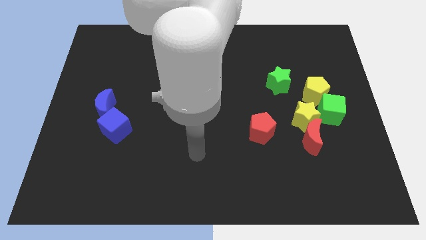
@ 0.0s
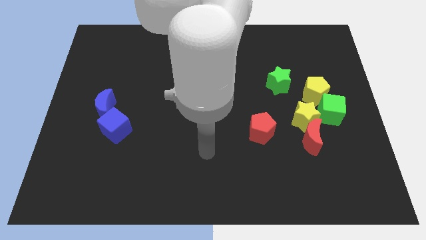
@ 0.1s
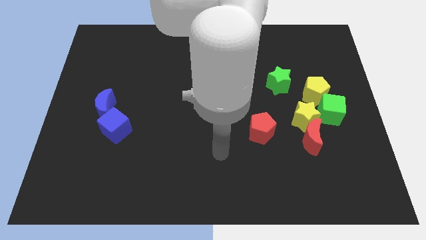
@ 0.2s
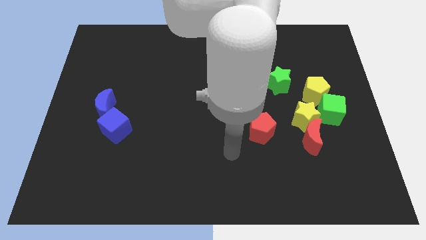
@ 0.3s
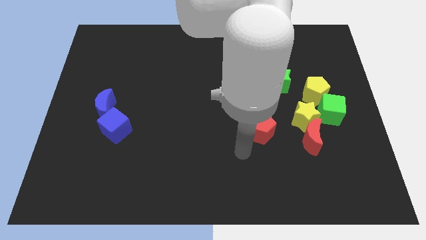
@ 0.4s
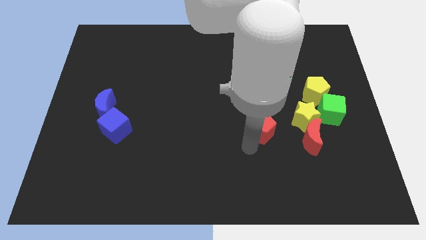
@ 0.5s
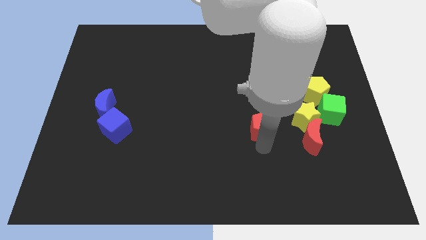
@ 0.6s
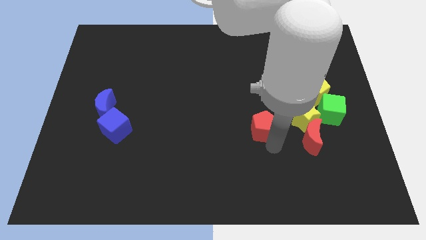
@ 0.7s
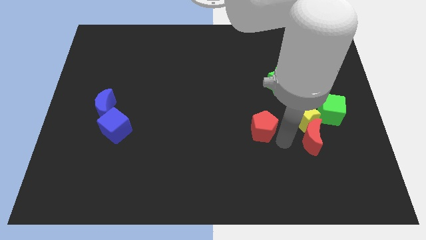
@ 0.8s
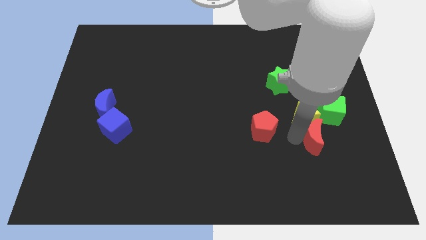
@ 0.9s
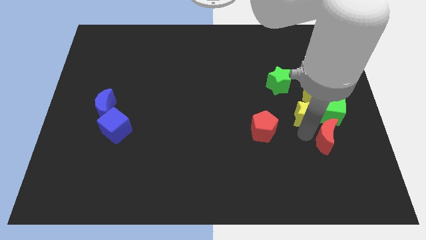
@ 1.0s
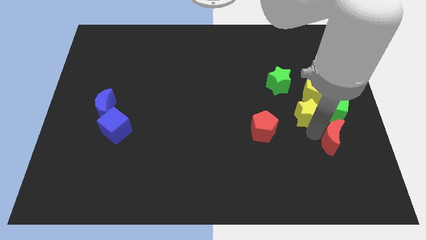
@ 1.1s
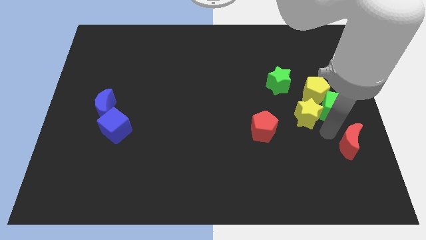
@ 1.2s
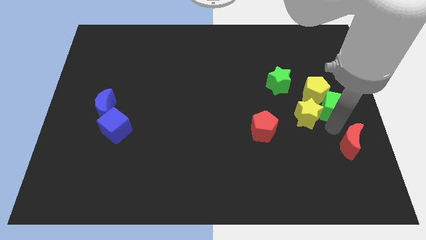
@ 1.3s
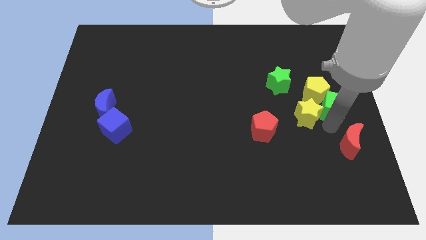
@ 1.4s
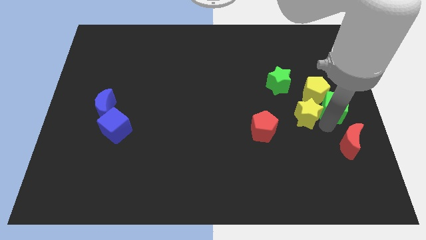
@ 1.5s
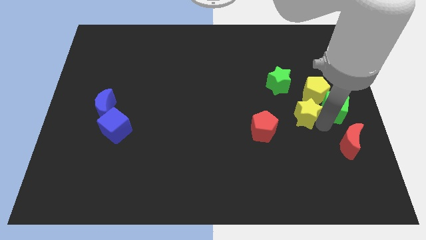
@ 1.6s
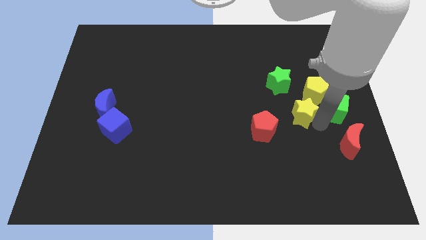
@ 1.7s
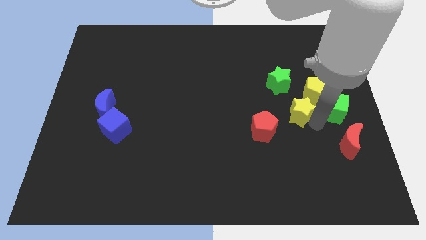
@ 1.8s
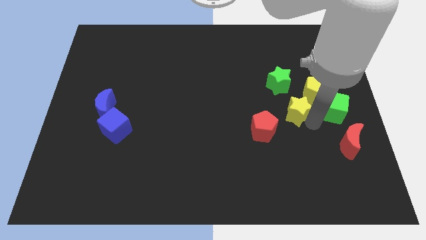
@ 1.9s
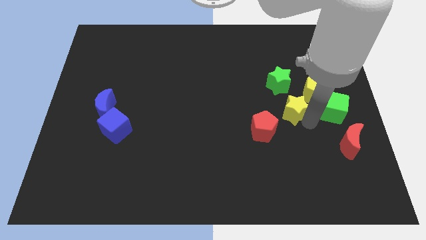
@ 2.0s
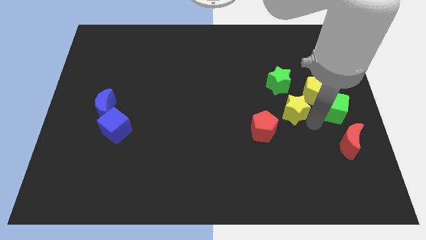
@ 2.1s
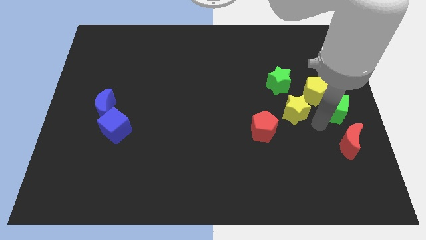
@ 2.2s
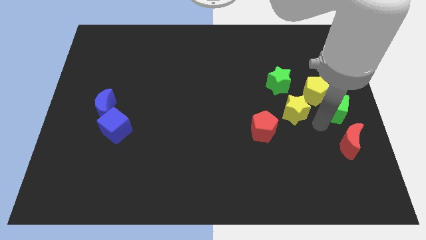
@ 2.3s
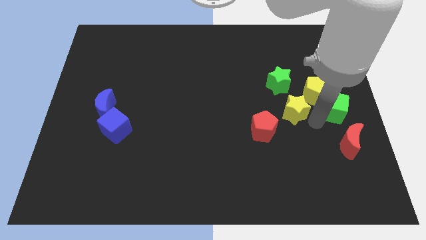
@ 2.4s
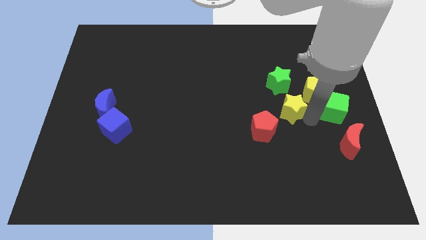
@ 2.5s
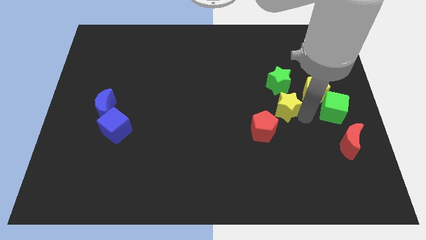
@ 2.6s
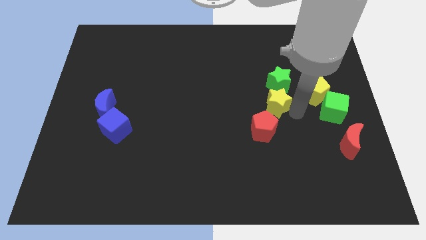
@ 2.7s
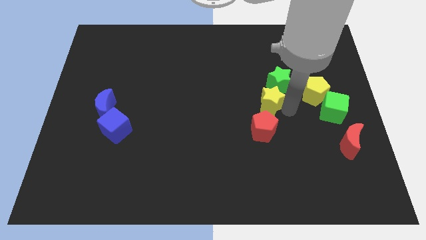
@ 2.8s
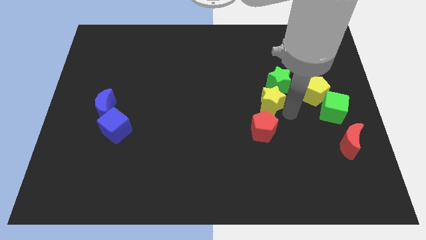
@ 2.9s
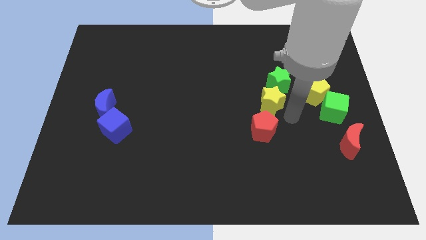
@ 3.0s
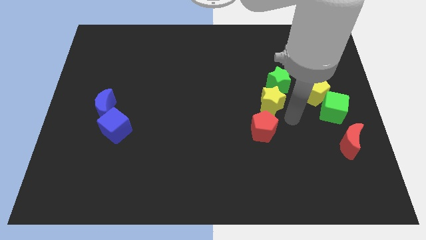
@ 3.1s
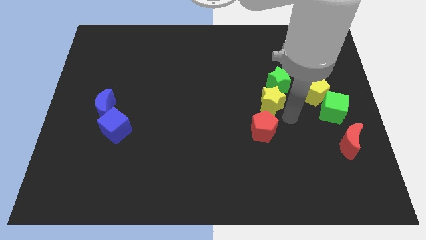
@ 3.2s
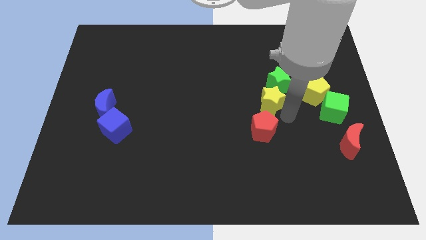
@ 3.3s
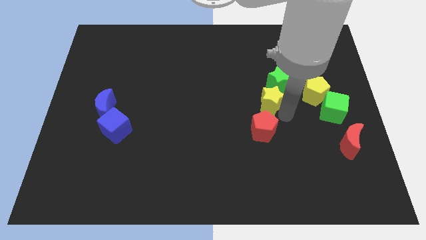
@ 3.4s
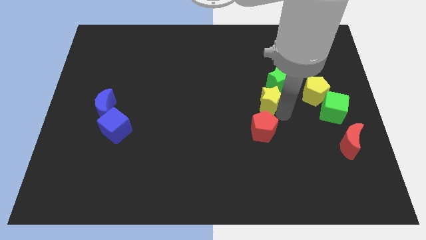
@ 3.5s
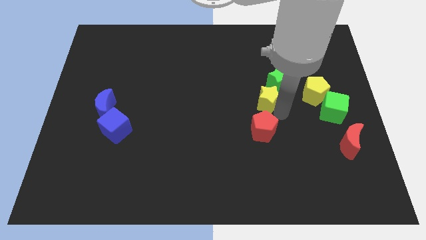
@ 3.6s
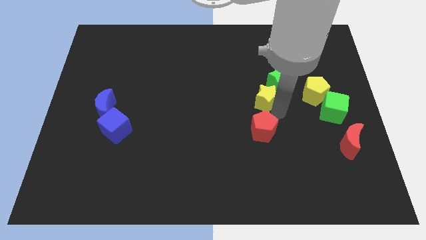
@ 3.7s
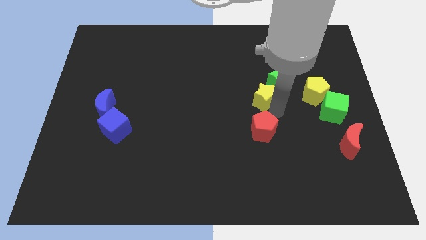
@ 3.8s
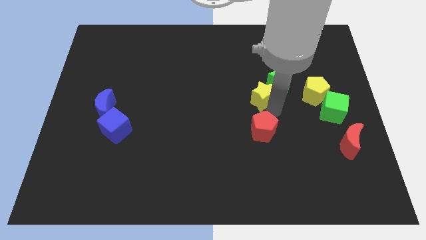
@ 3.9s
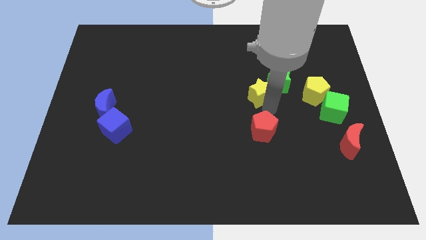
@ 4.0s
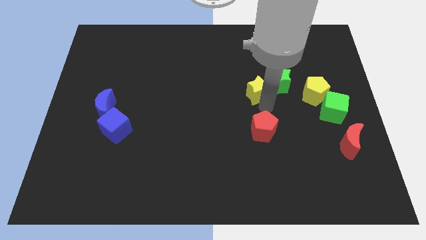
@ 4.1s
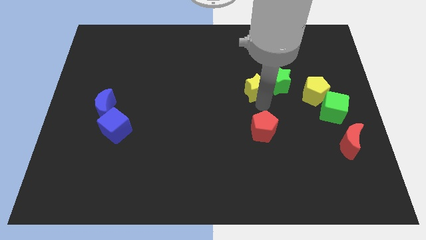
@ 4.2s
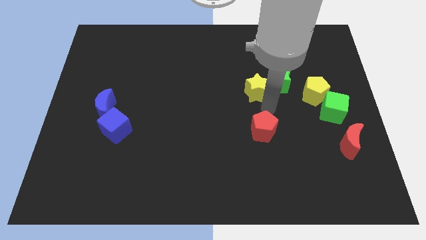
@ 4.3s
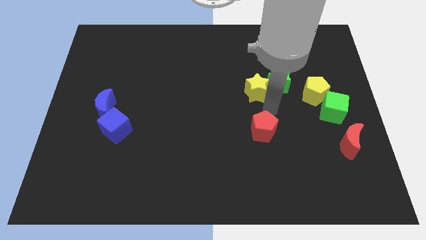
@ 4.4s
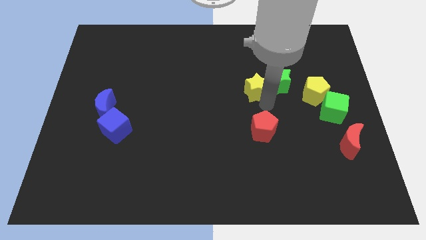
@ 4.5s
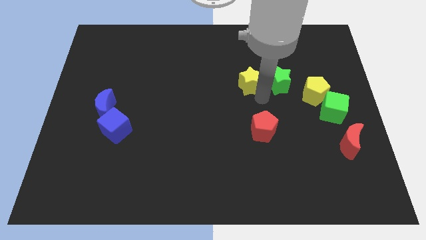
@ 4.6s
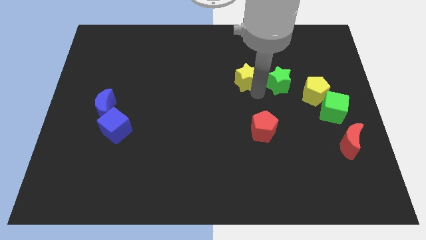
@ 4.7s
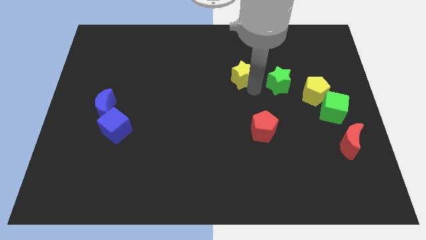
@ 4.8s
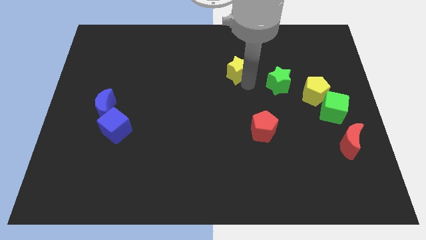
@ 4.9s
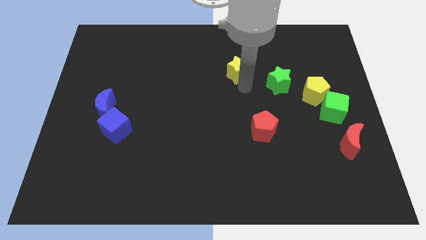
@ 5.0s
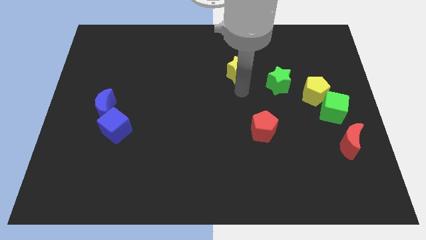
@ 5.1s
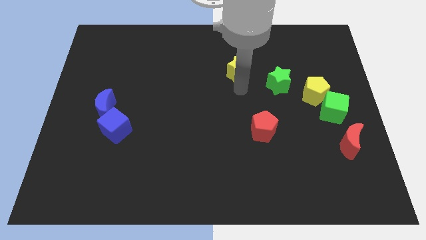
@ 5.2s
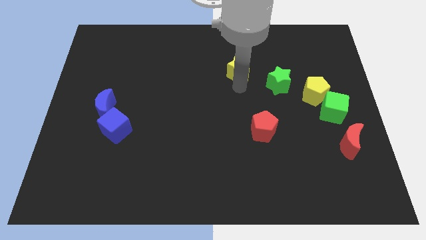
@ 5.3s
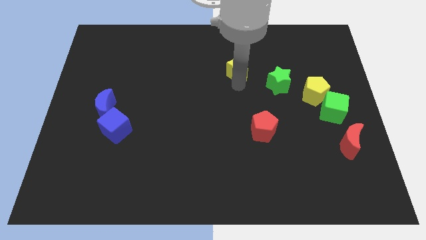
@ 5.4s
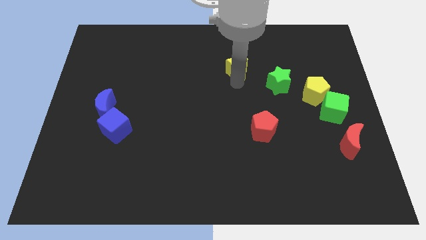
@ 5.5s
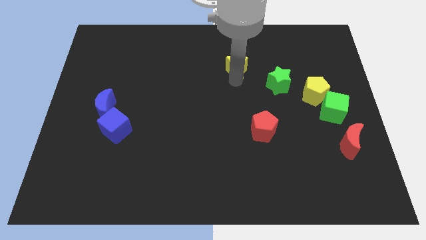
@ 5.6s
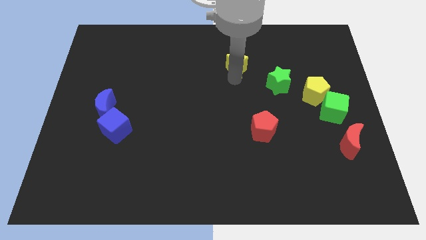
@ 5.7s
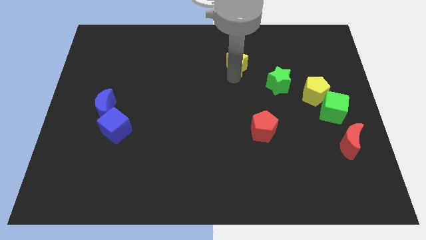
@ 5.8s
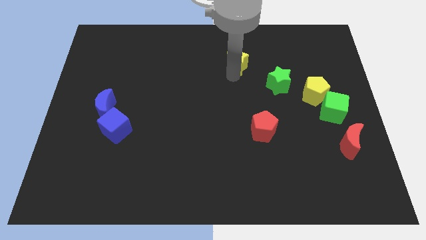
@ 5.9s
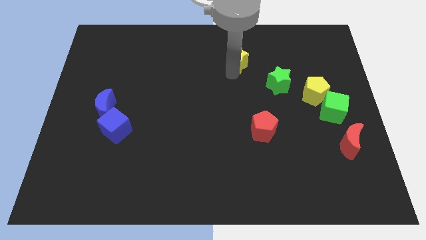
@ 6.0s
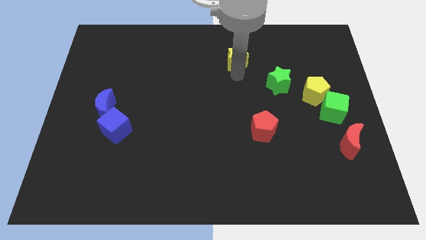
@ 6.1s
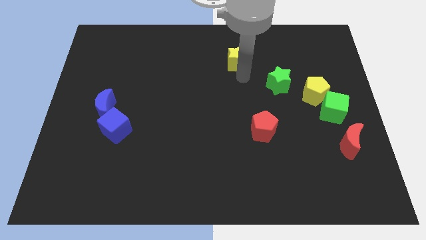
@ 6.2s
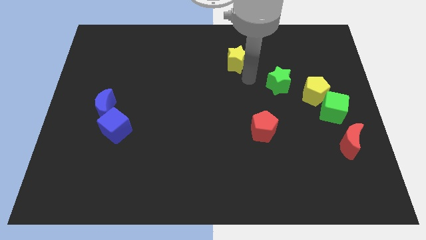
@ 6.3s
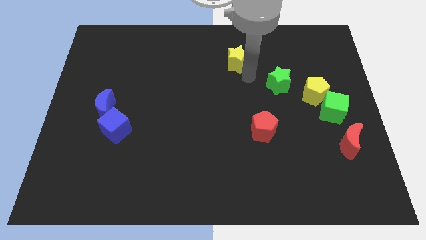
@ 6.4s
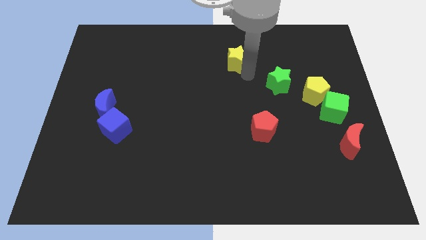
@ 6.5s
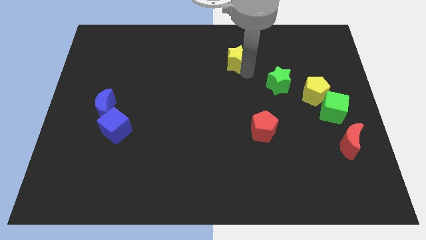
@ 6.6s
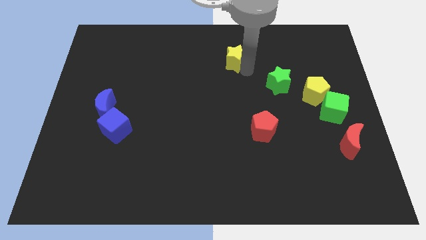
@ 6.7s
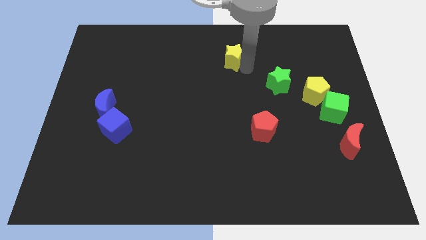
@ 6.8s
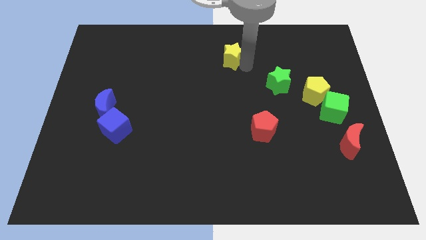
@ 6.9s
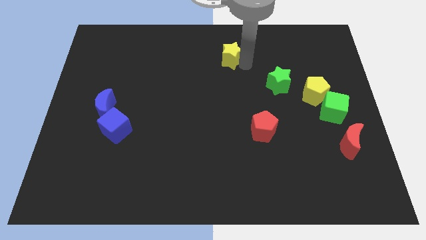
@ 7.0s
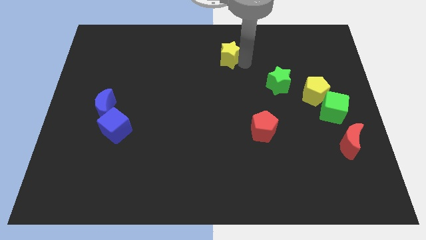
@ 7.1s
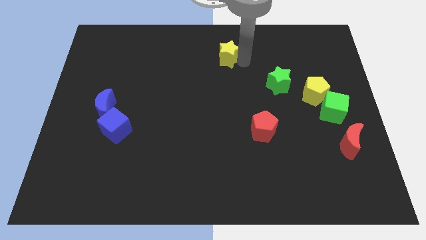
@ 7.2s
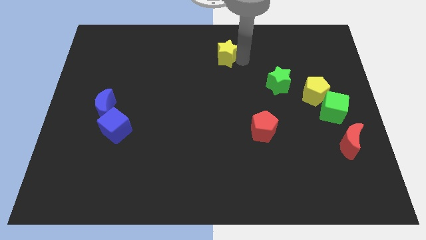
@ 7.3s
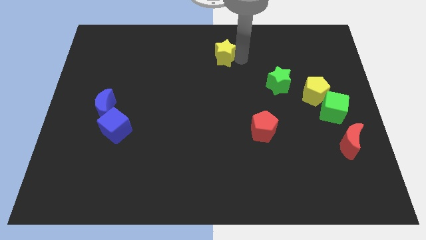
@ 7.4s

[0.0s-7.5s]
push the yellow star to the top side
